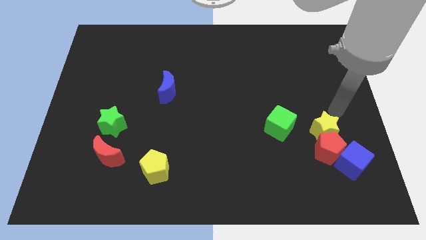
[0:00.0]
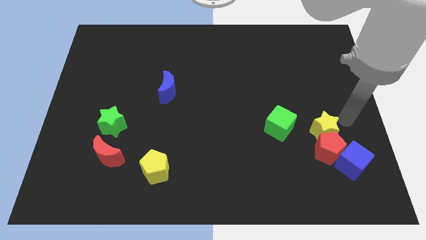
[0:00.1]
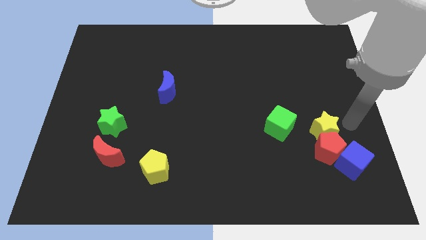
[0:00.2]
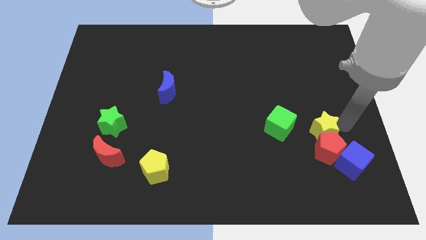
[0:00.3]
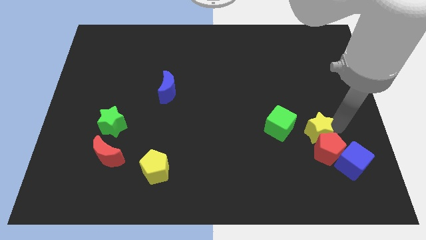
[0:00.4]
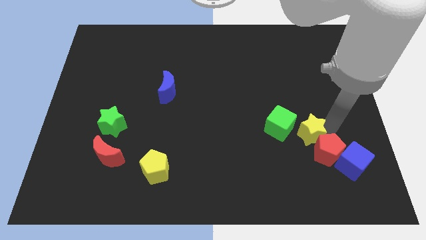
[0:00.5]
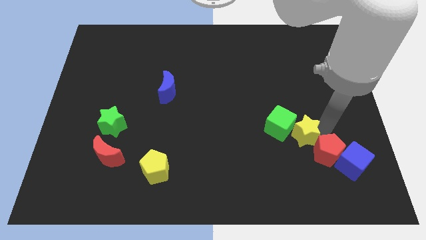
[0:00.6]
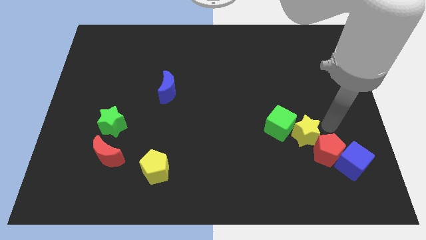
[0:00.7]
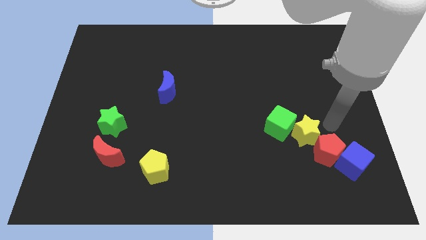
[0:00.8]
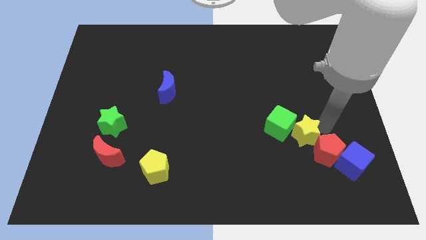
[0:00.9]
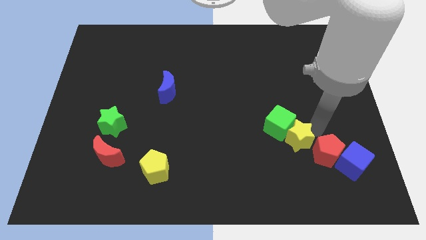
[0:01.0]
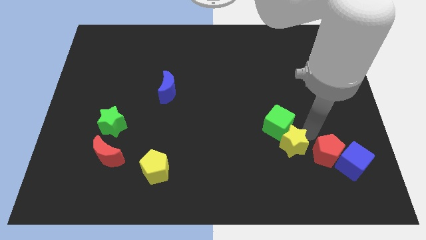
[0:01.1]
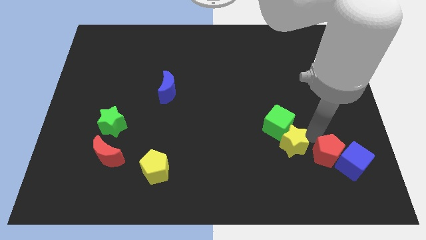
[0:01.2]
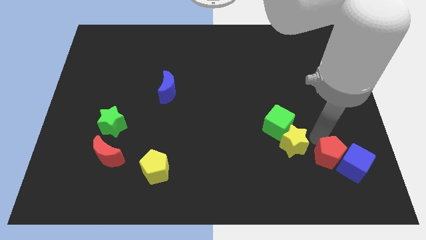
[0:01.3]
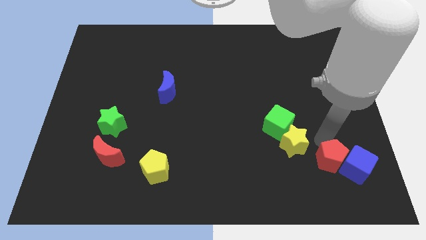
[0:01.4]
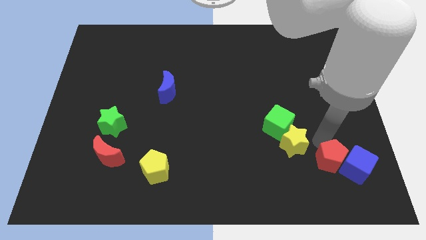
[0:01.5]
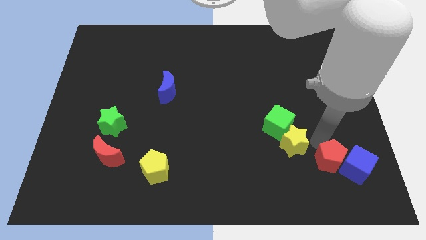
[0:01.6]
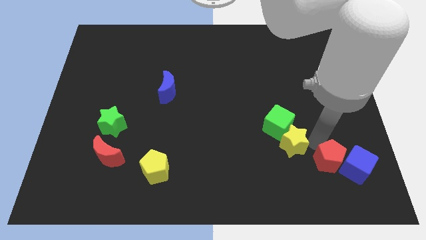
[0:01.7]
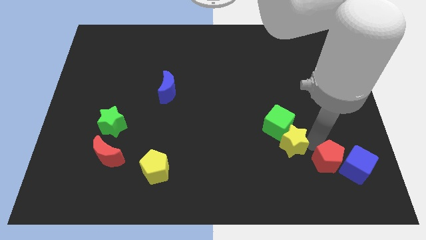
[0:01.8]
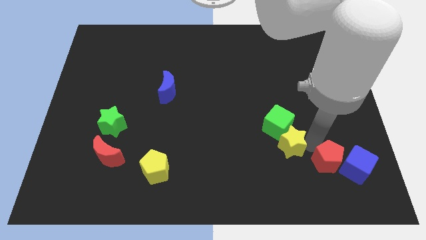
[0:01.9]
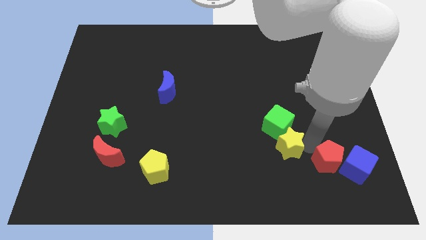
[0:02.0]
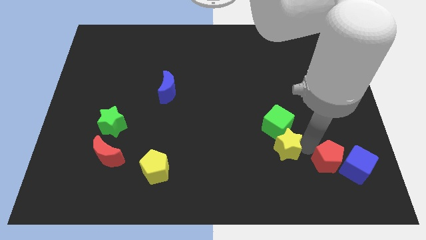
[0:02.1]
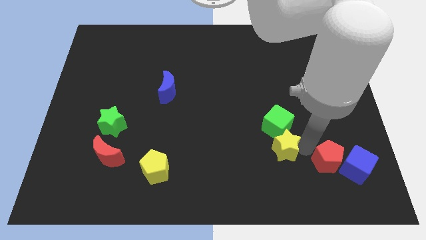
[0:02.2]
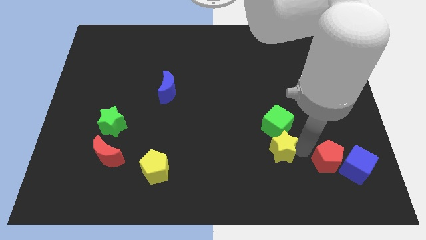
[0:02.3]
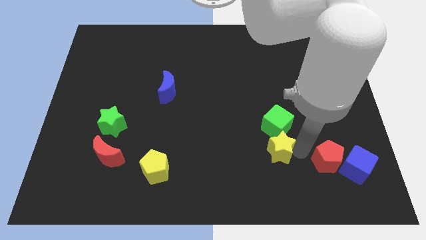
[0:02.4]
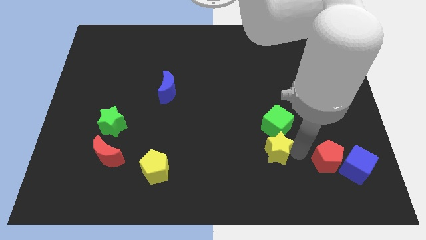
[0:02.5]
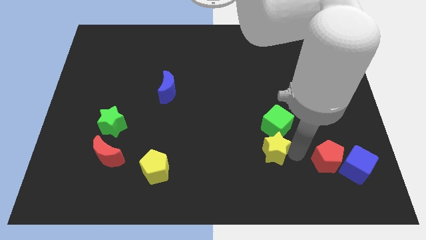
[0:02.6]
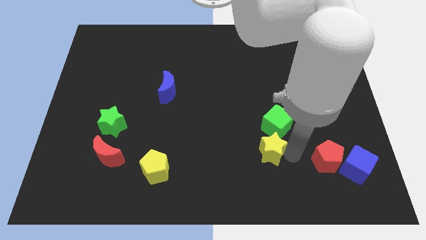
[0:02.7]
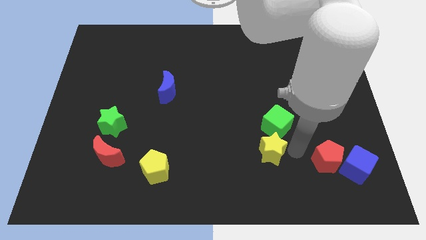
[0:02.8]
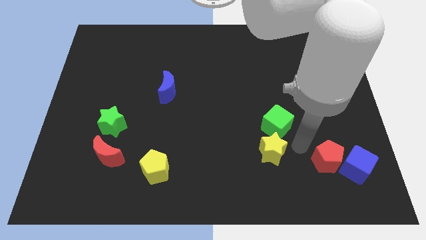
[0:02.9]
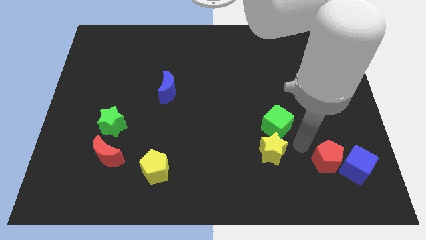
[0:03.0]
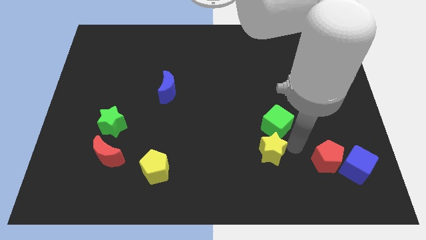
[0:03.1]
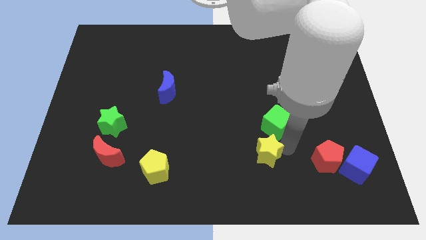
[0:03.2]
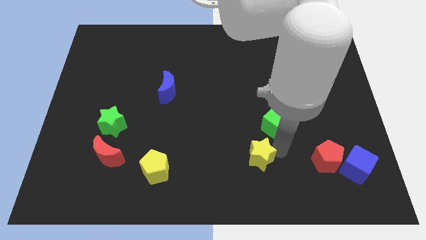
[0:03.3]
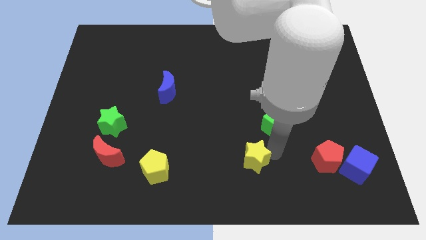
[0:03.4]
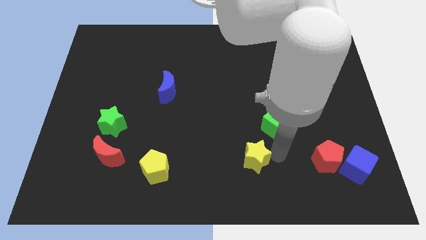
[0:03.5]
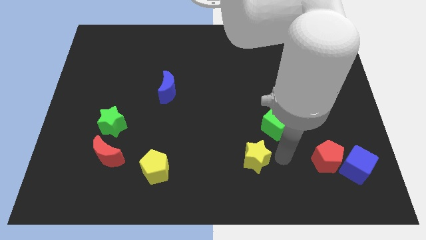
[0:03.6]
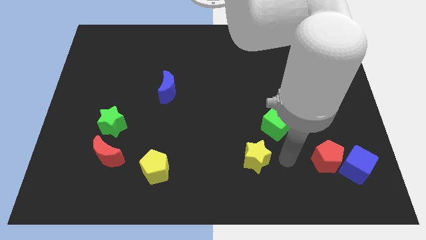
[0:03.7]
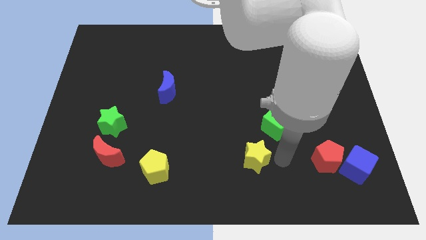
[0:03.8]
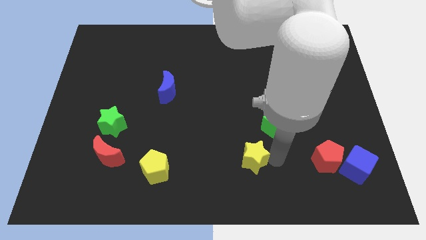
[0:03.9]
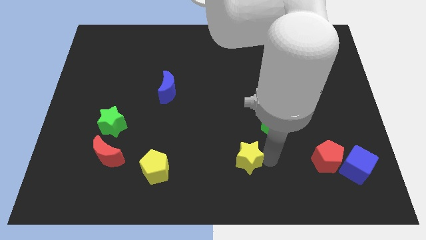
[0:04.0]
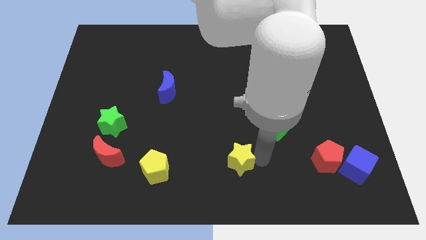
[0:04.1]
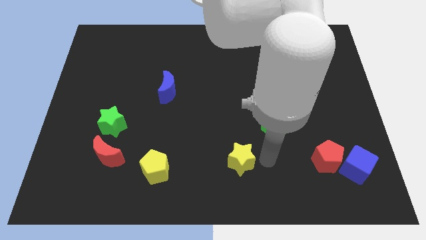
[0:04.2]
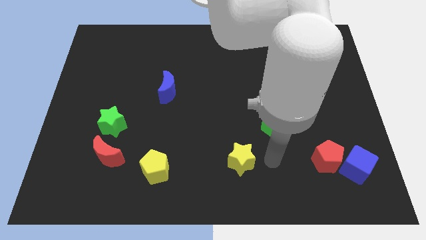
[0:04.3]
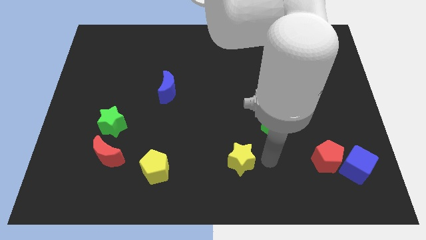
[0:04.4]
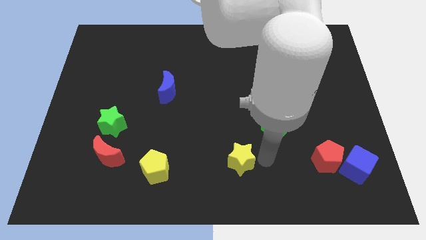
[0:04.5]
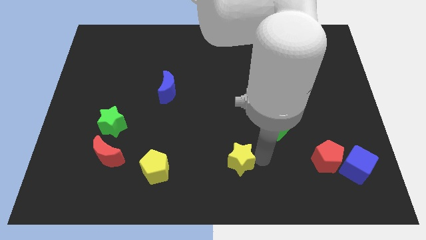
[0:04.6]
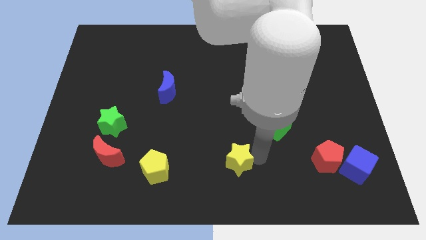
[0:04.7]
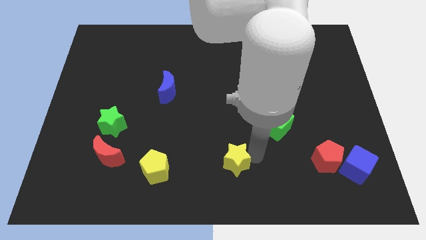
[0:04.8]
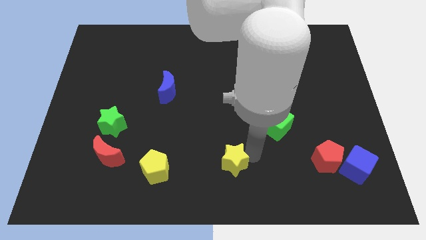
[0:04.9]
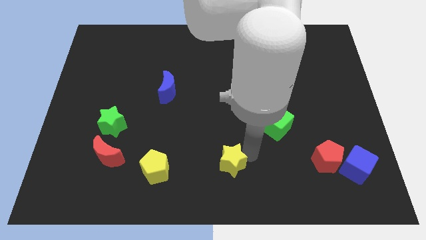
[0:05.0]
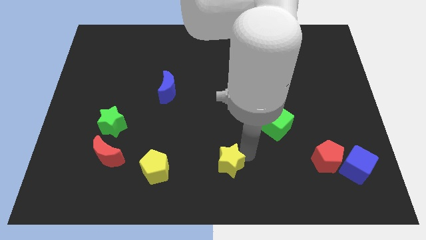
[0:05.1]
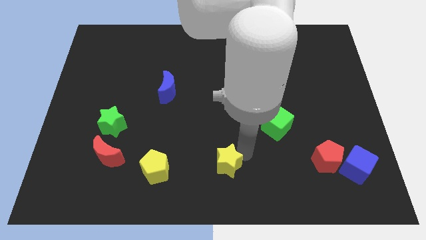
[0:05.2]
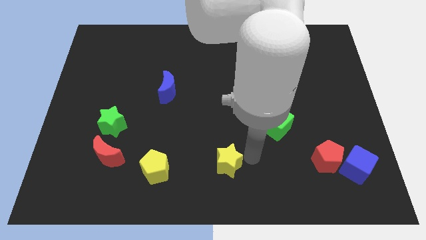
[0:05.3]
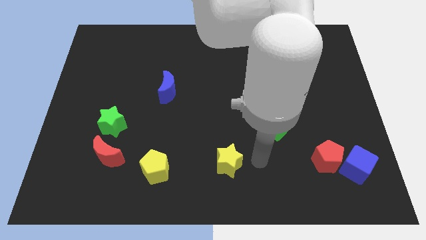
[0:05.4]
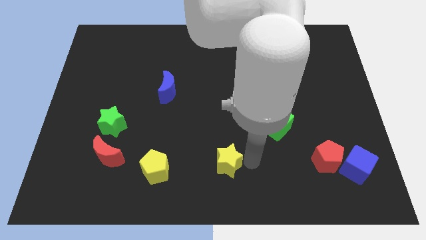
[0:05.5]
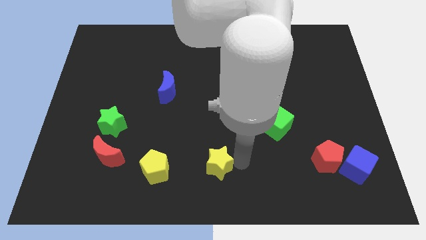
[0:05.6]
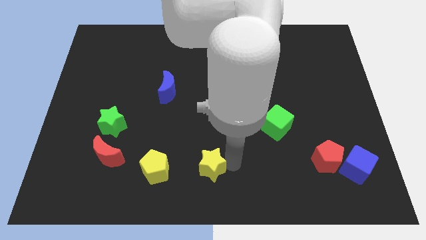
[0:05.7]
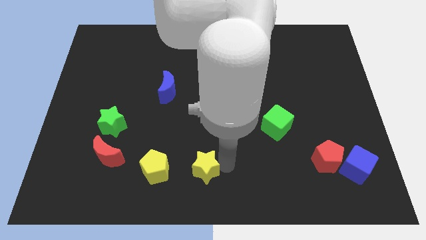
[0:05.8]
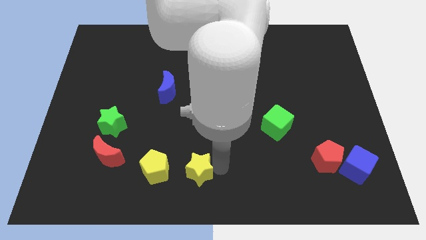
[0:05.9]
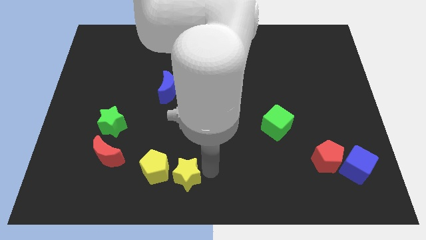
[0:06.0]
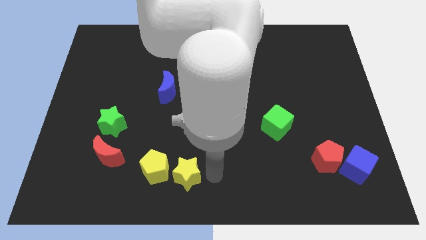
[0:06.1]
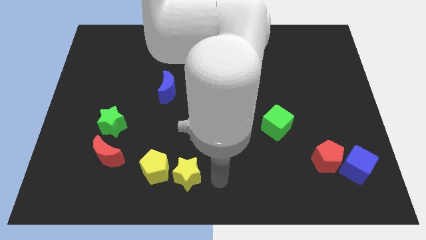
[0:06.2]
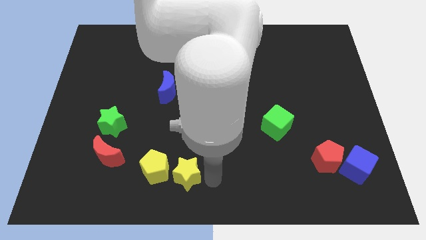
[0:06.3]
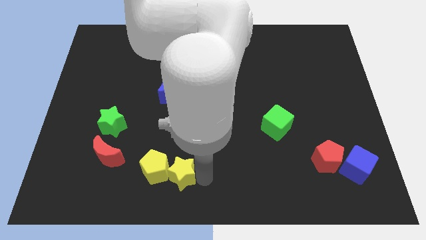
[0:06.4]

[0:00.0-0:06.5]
move the yellow star close to the yellow pentagon

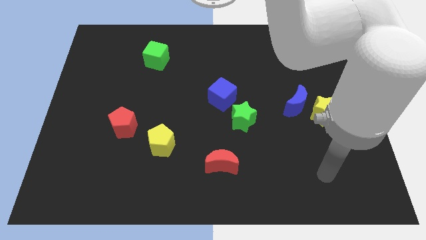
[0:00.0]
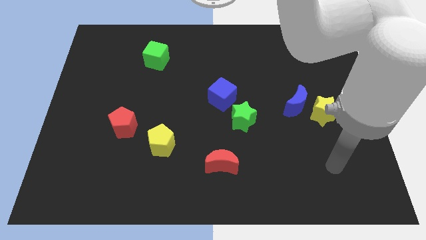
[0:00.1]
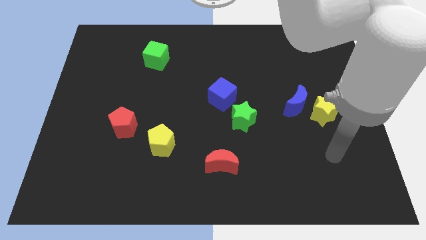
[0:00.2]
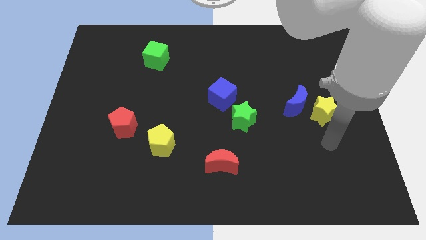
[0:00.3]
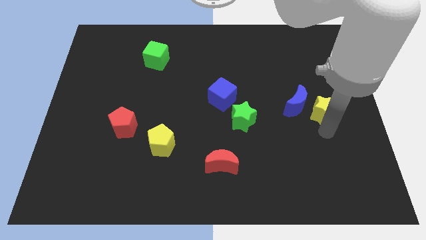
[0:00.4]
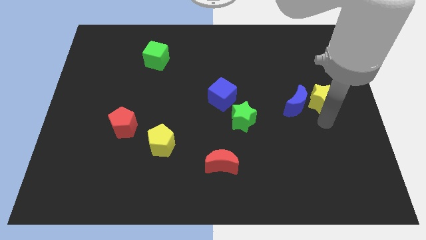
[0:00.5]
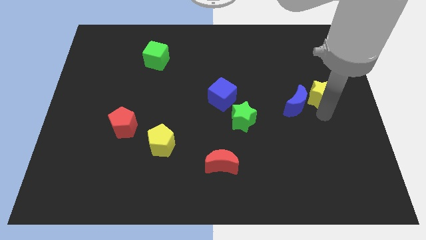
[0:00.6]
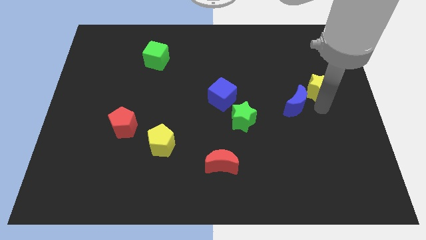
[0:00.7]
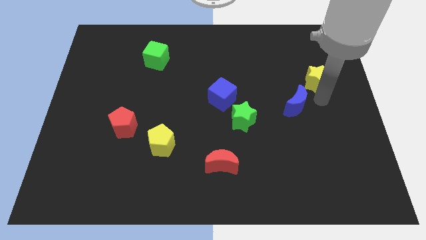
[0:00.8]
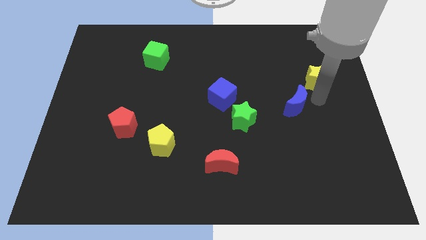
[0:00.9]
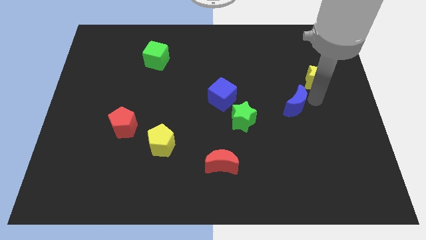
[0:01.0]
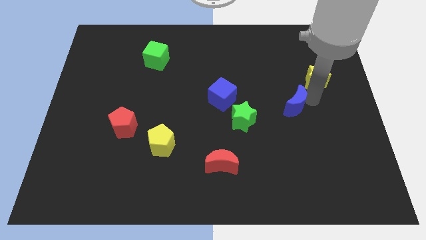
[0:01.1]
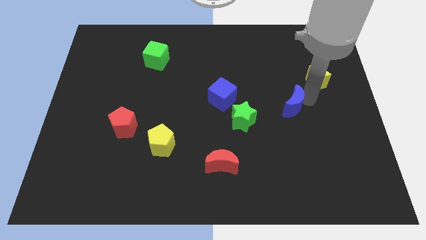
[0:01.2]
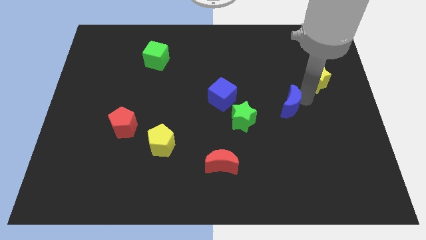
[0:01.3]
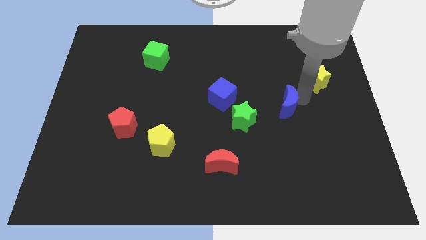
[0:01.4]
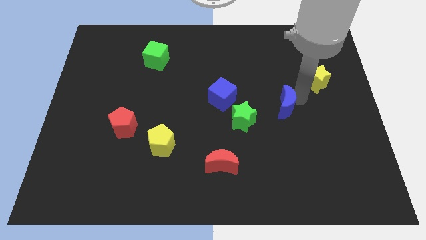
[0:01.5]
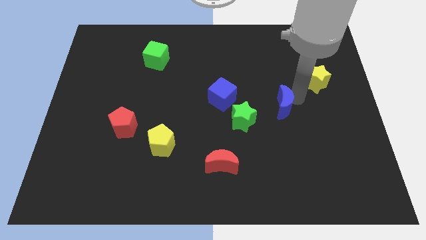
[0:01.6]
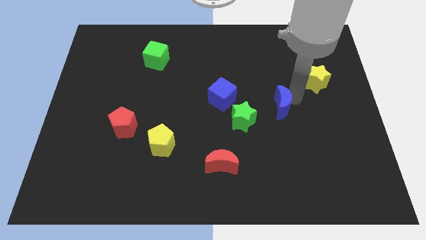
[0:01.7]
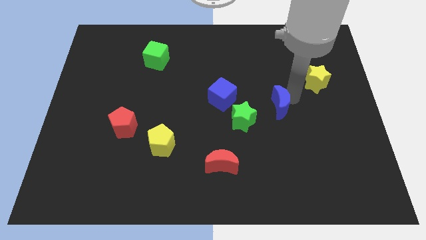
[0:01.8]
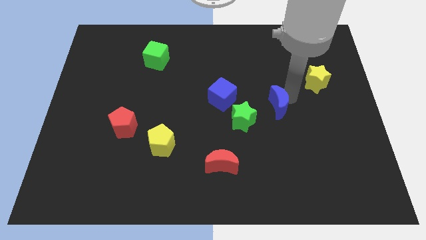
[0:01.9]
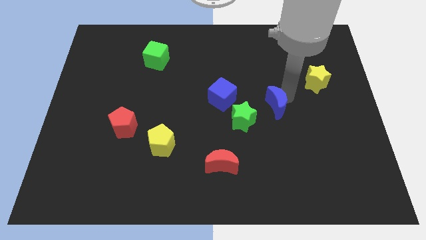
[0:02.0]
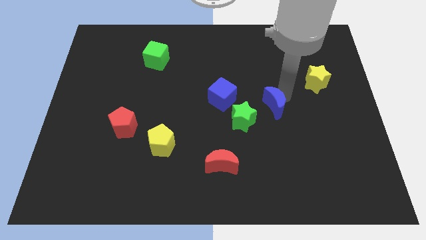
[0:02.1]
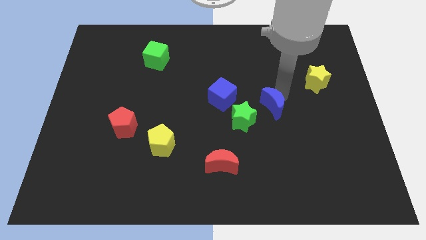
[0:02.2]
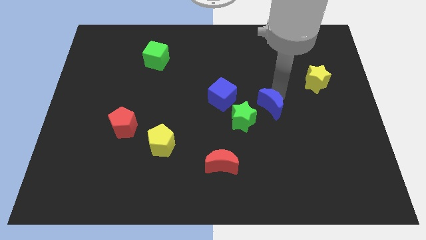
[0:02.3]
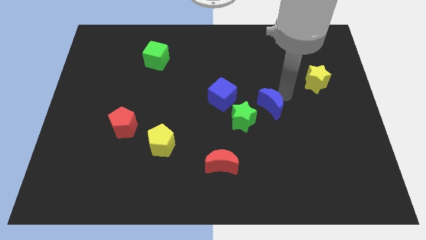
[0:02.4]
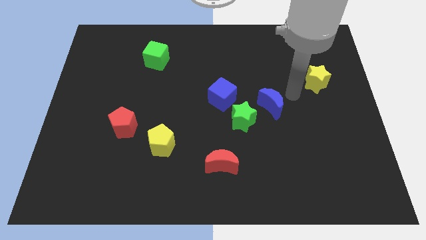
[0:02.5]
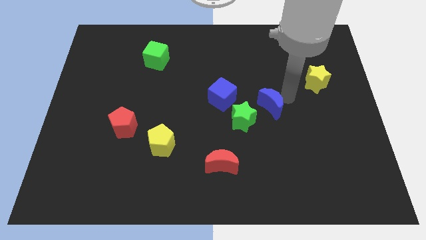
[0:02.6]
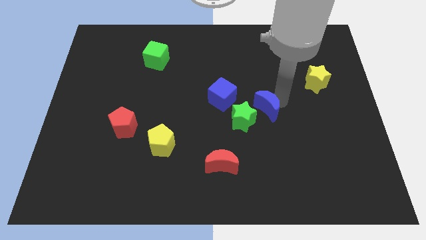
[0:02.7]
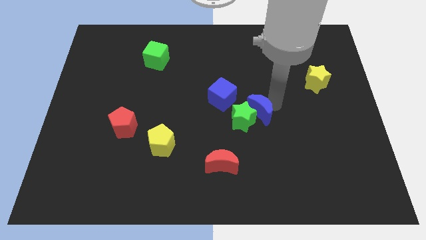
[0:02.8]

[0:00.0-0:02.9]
put the blue moon to the green star
